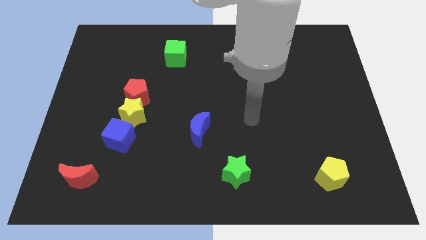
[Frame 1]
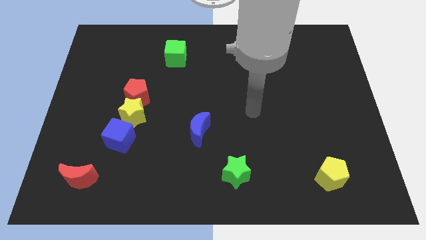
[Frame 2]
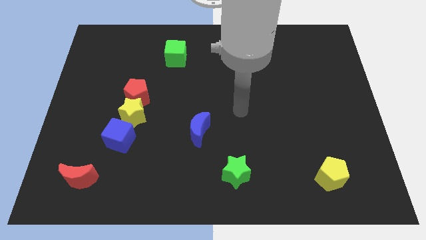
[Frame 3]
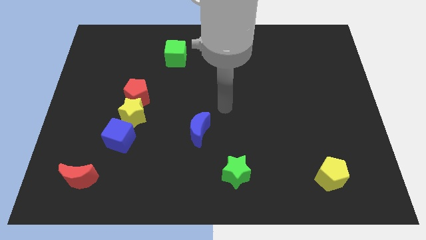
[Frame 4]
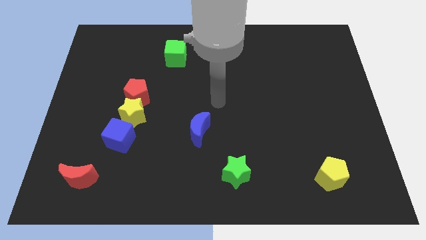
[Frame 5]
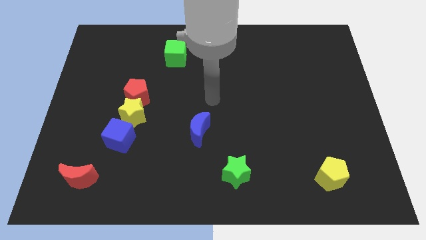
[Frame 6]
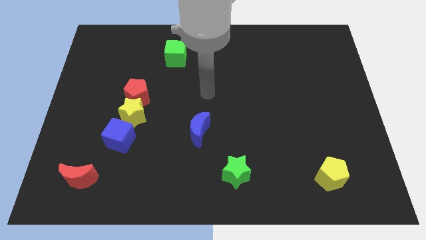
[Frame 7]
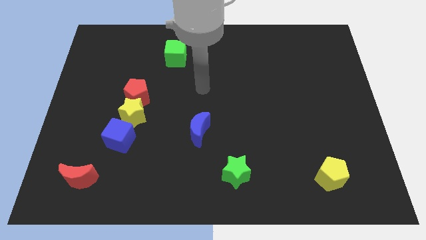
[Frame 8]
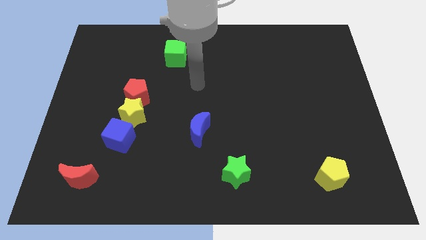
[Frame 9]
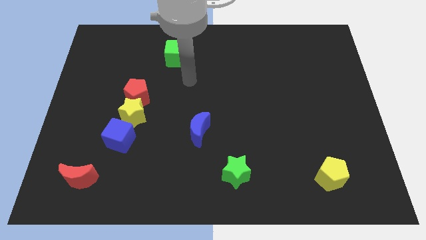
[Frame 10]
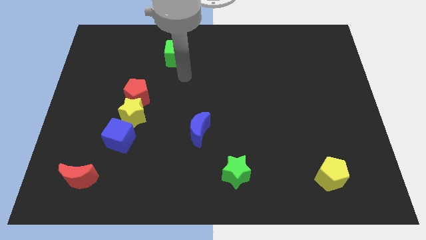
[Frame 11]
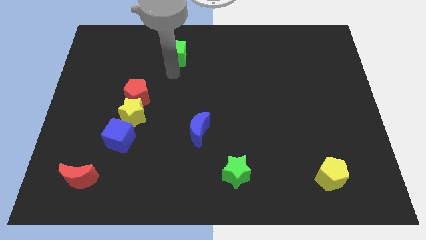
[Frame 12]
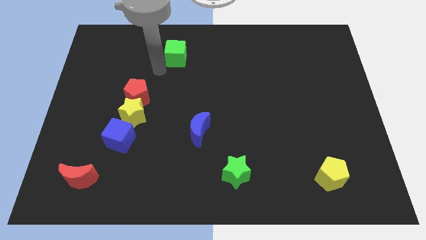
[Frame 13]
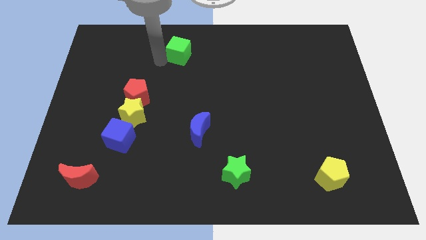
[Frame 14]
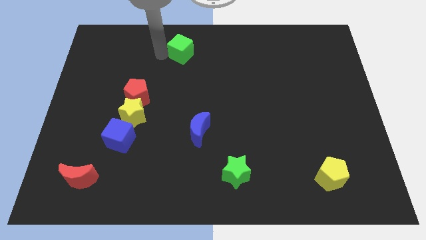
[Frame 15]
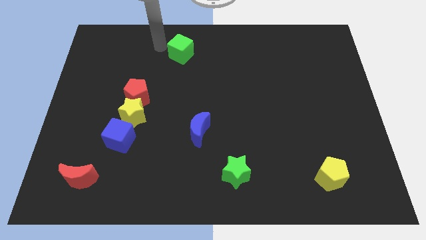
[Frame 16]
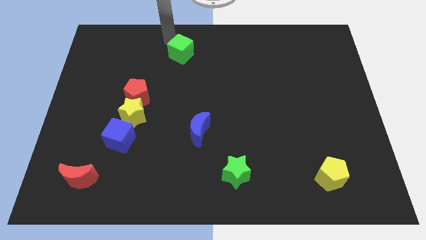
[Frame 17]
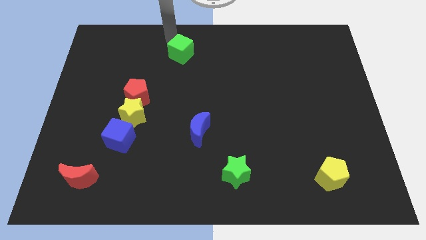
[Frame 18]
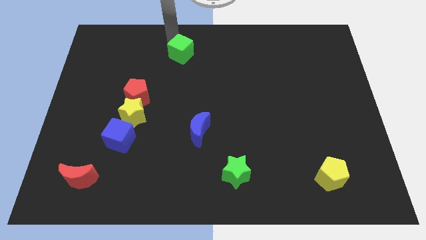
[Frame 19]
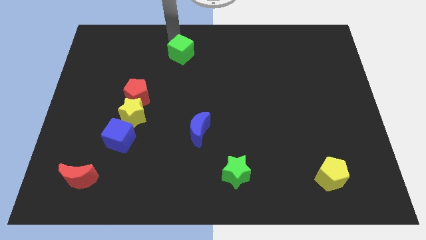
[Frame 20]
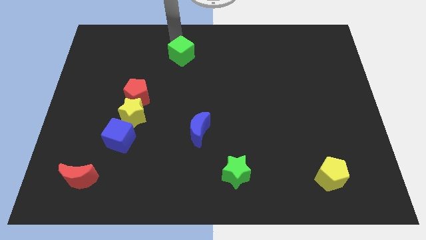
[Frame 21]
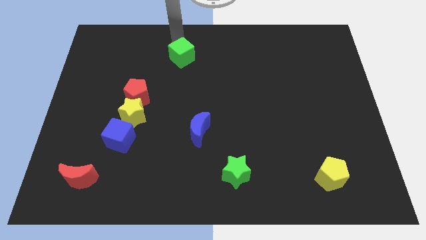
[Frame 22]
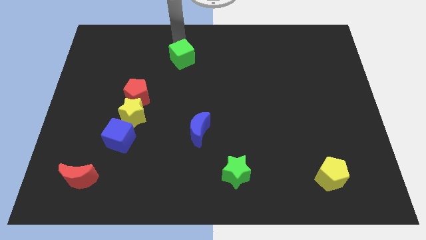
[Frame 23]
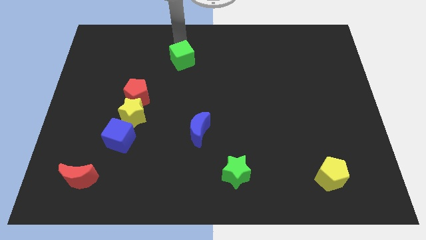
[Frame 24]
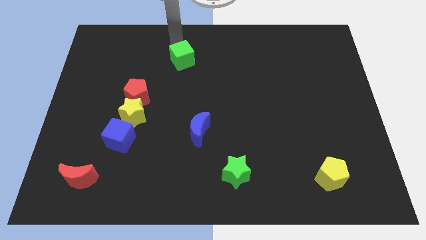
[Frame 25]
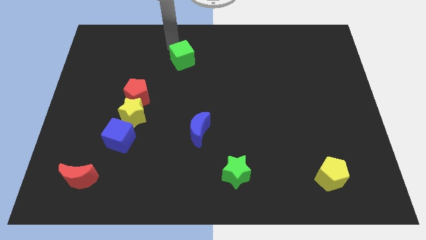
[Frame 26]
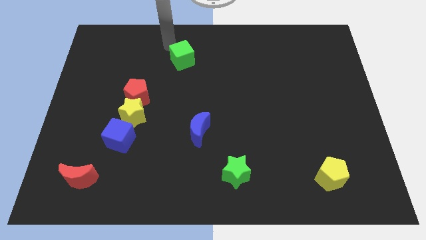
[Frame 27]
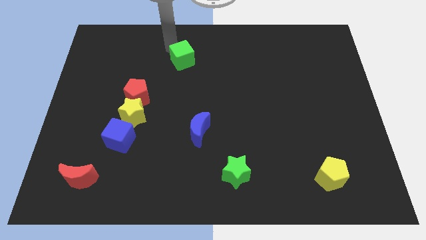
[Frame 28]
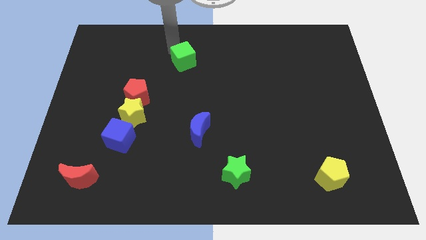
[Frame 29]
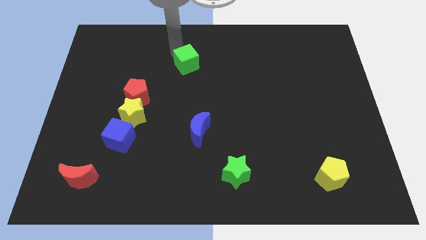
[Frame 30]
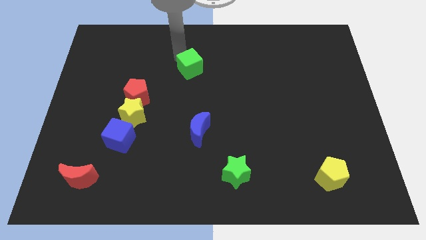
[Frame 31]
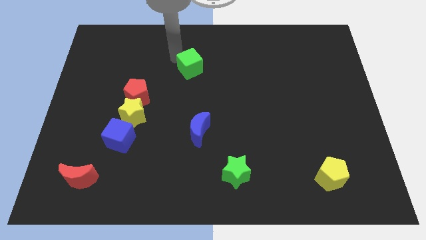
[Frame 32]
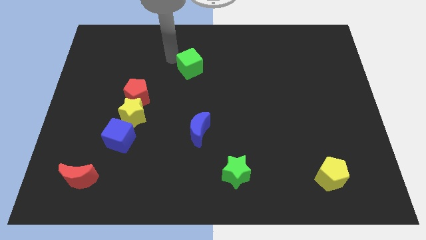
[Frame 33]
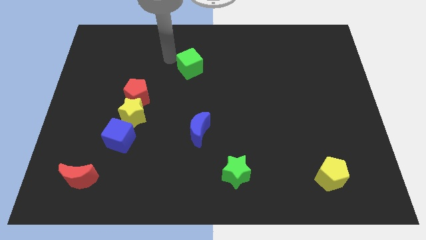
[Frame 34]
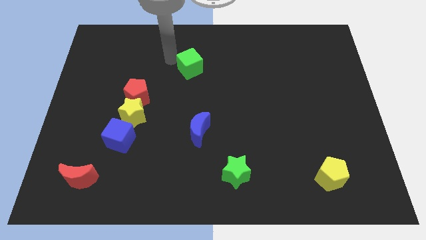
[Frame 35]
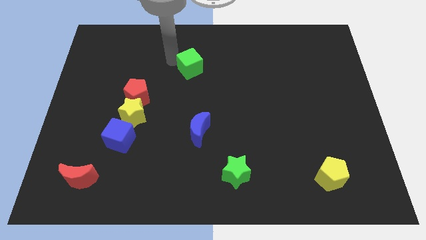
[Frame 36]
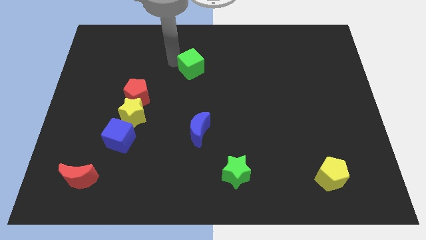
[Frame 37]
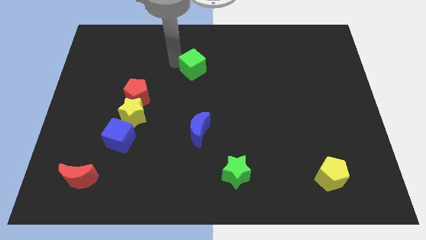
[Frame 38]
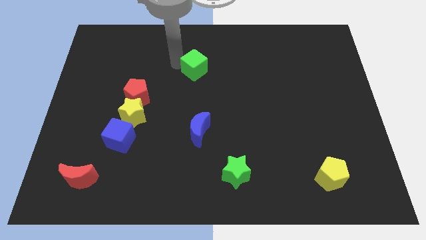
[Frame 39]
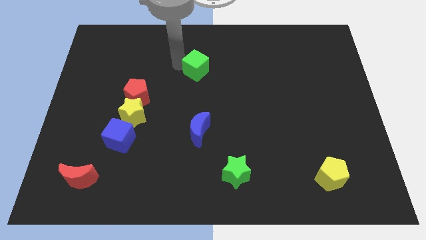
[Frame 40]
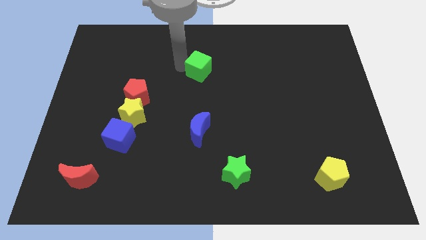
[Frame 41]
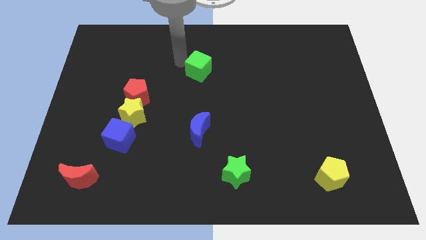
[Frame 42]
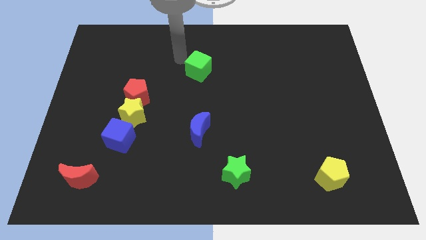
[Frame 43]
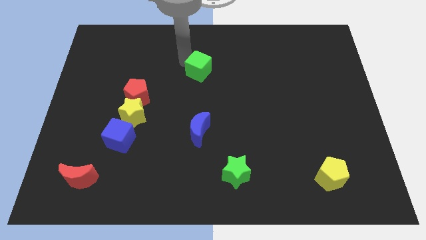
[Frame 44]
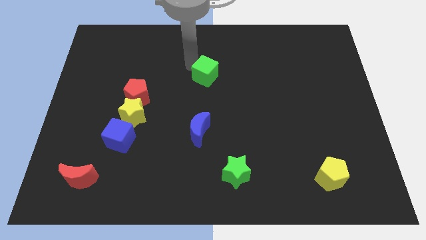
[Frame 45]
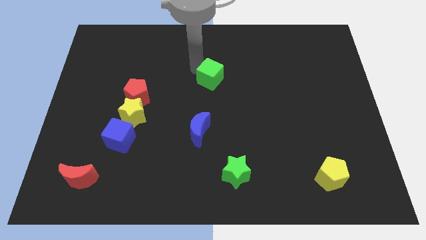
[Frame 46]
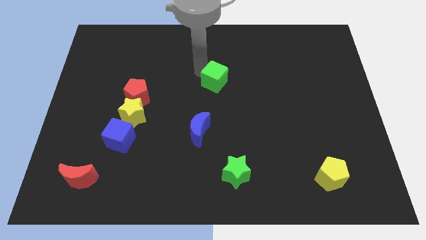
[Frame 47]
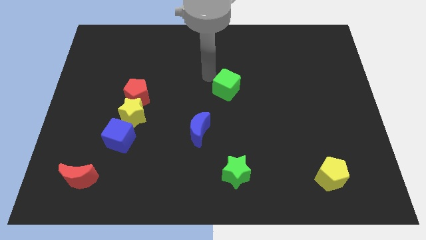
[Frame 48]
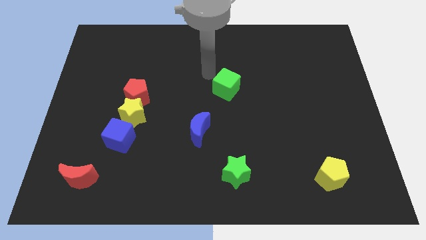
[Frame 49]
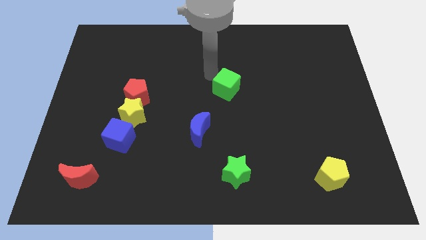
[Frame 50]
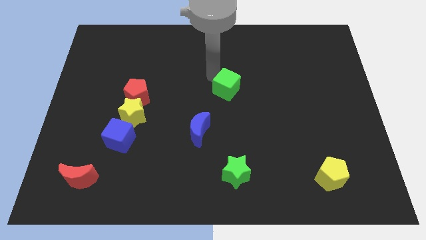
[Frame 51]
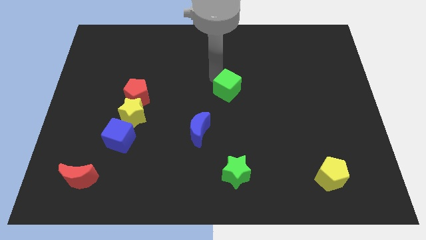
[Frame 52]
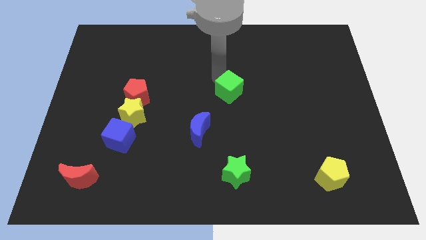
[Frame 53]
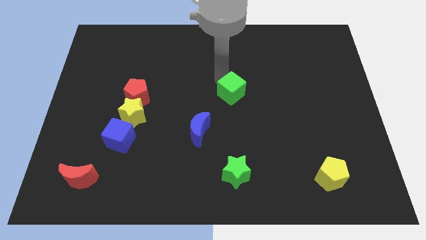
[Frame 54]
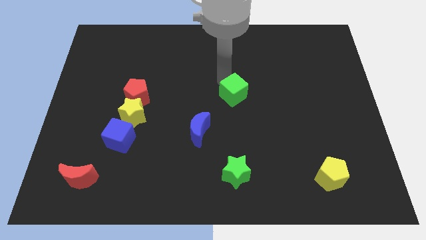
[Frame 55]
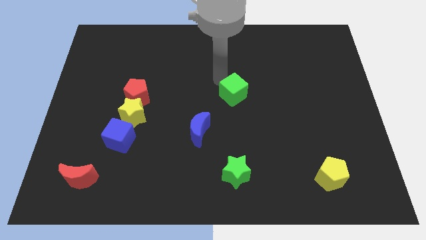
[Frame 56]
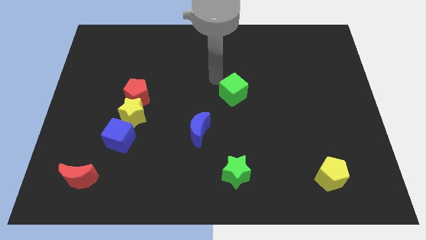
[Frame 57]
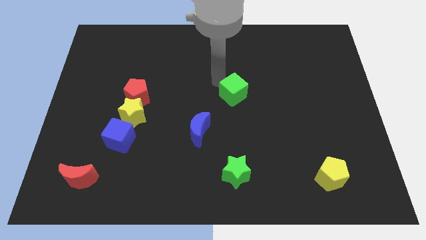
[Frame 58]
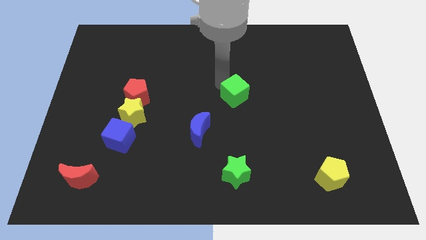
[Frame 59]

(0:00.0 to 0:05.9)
push the green cube down and right

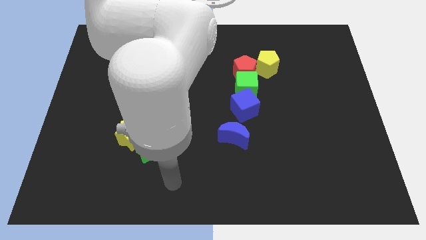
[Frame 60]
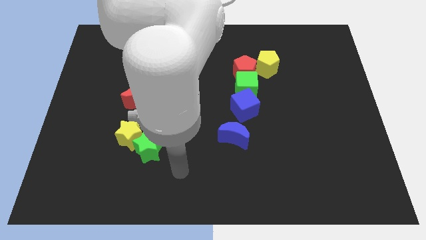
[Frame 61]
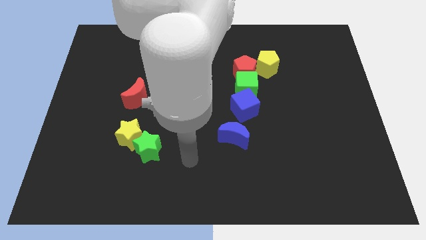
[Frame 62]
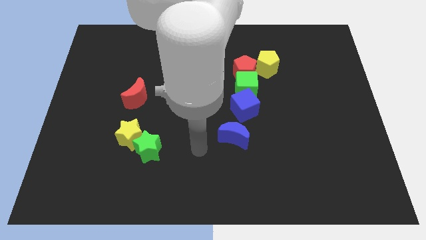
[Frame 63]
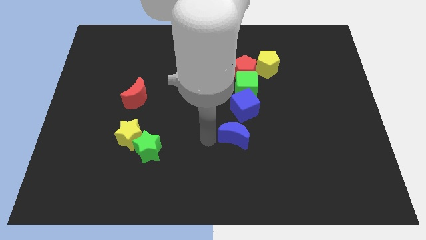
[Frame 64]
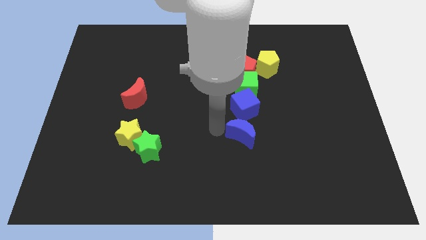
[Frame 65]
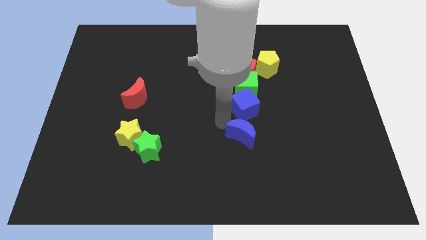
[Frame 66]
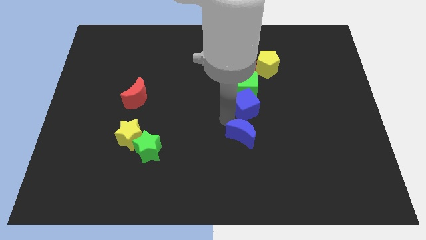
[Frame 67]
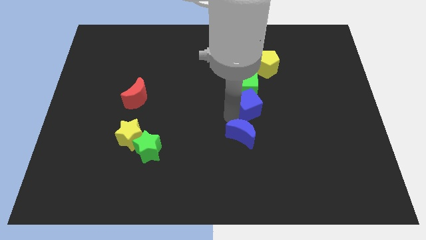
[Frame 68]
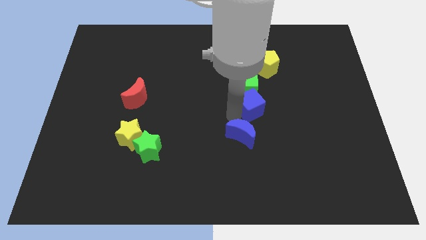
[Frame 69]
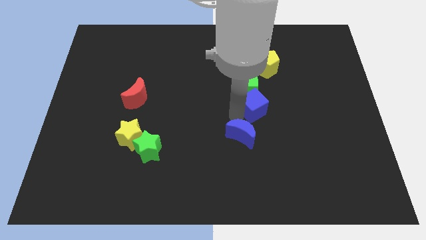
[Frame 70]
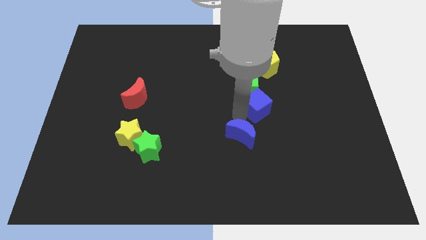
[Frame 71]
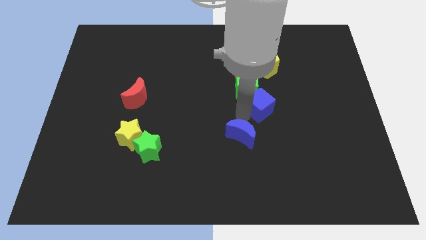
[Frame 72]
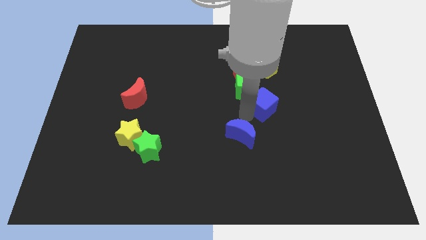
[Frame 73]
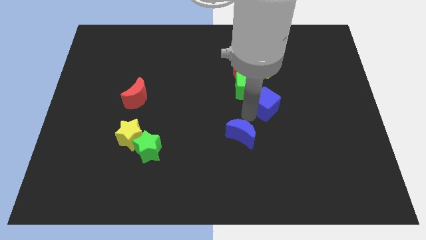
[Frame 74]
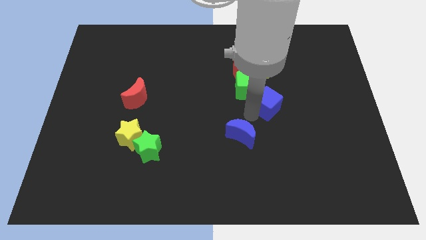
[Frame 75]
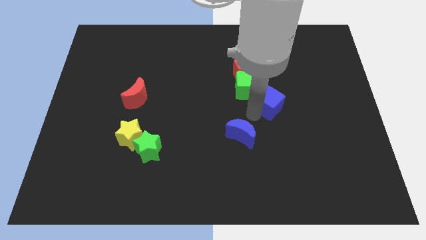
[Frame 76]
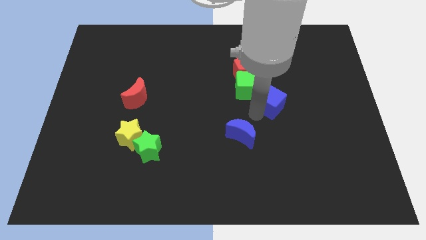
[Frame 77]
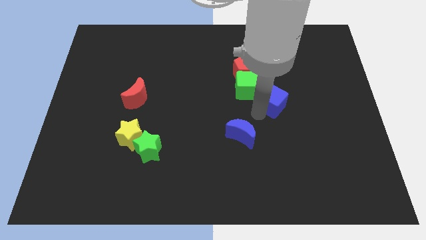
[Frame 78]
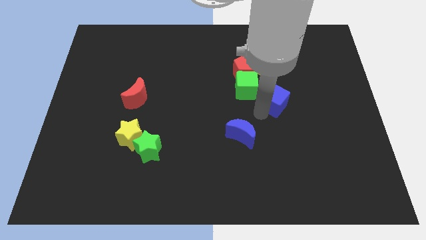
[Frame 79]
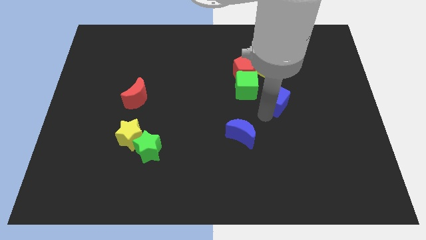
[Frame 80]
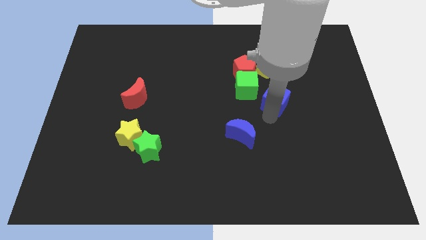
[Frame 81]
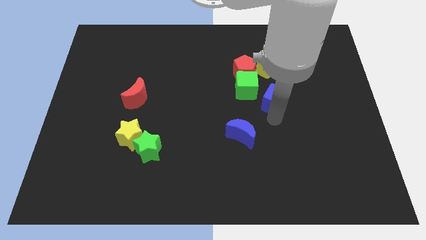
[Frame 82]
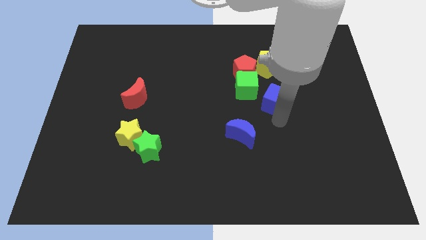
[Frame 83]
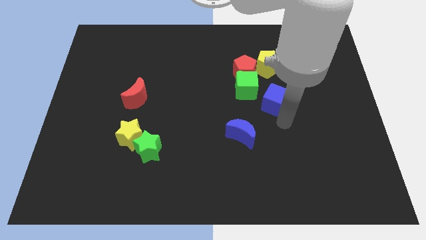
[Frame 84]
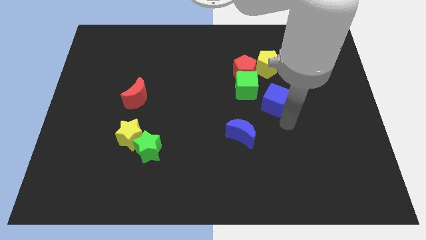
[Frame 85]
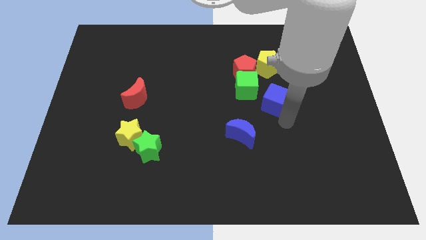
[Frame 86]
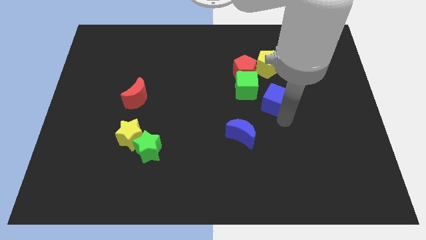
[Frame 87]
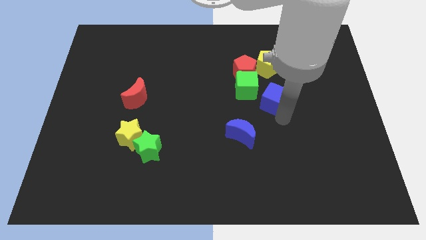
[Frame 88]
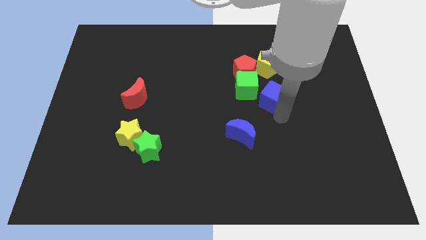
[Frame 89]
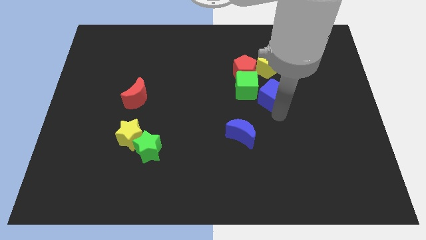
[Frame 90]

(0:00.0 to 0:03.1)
slide the blue cube a bit up and right diagonally
